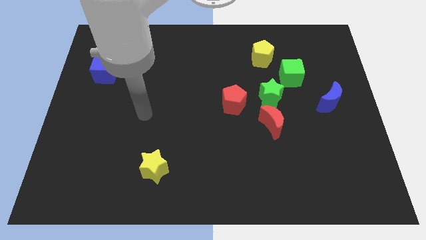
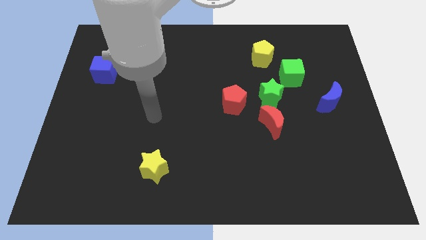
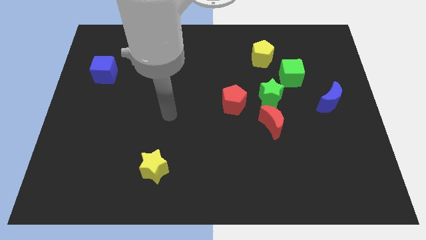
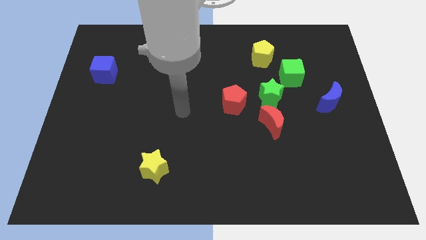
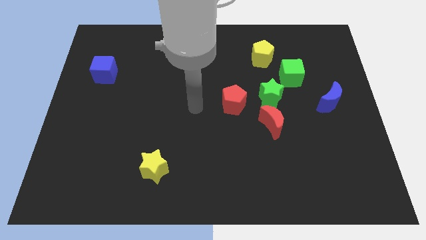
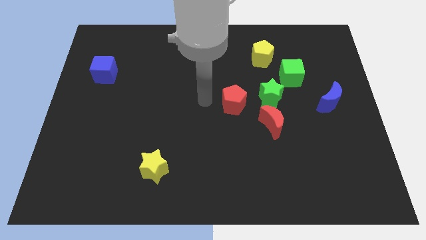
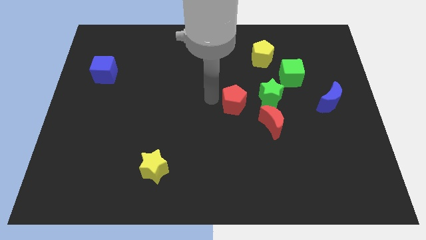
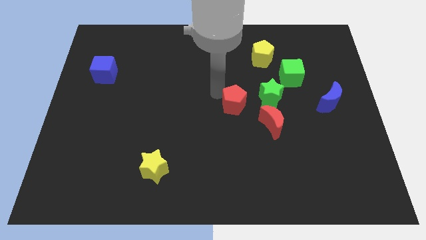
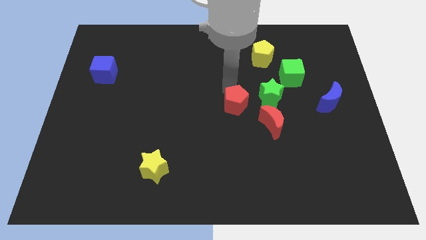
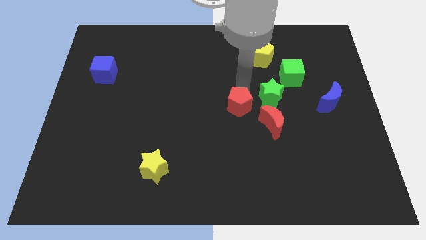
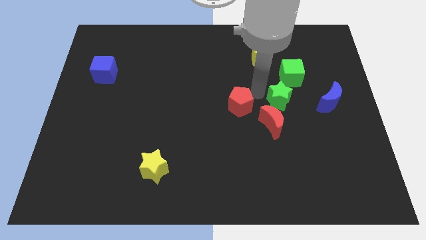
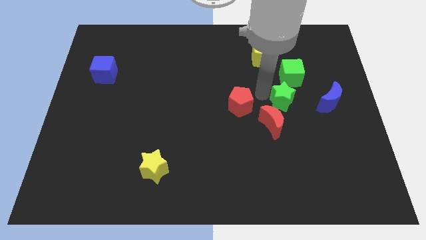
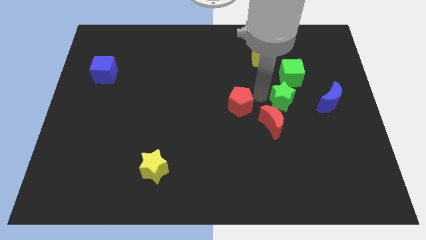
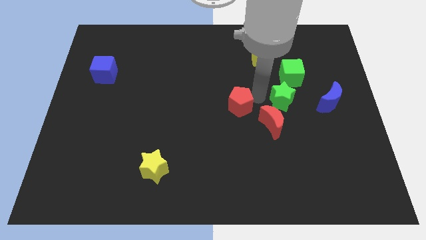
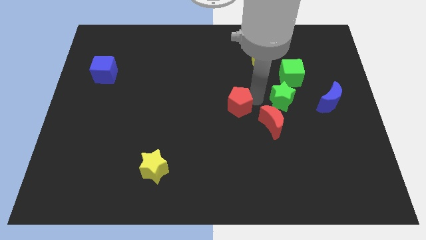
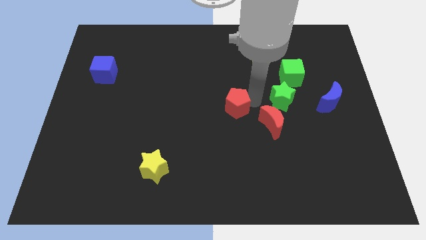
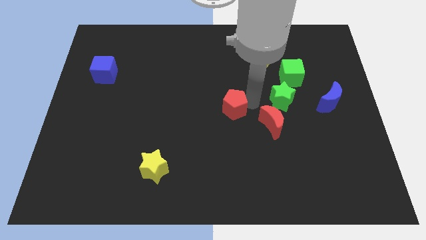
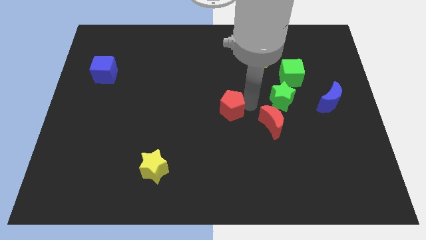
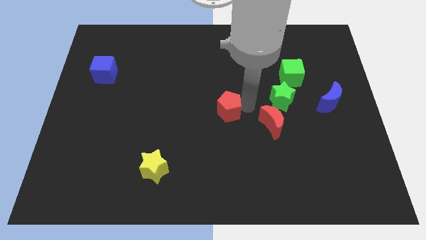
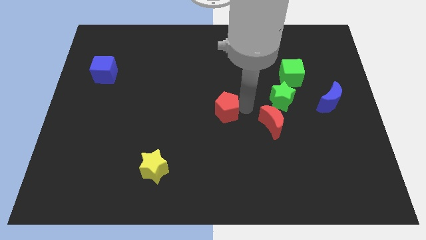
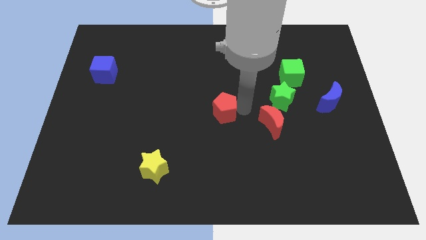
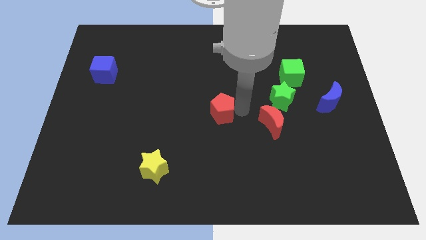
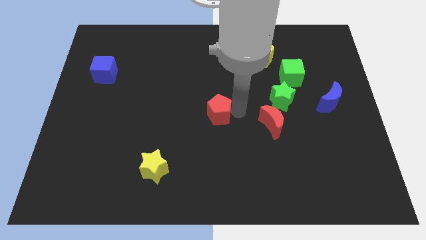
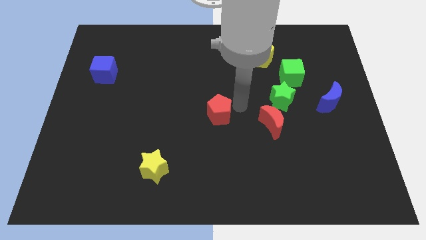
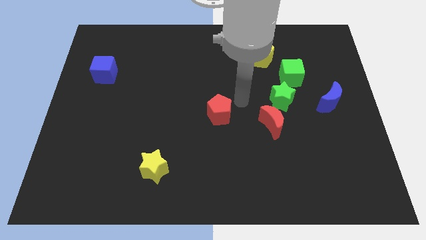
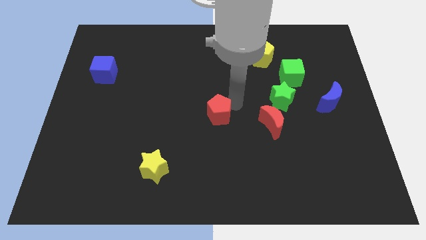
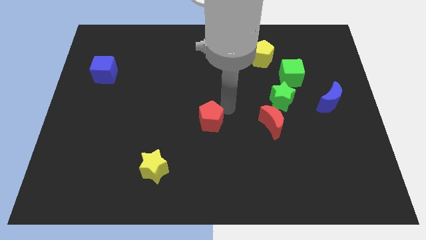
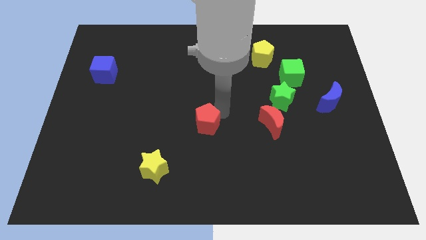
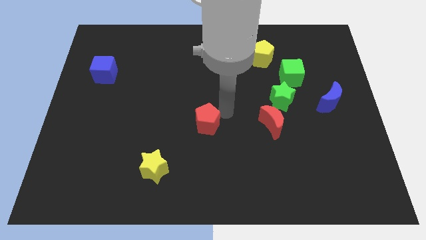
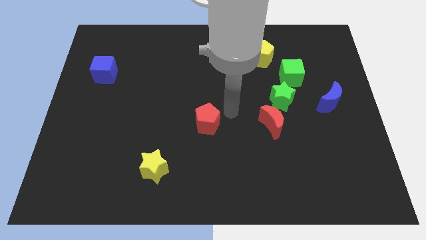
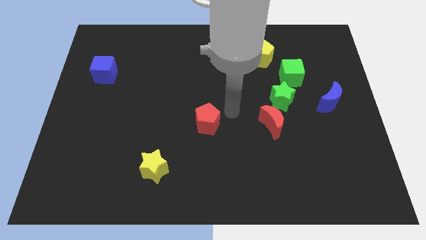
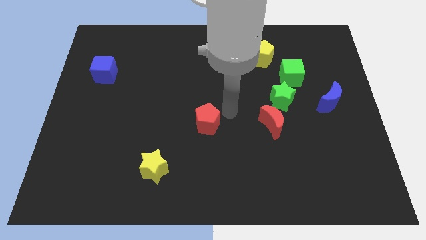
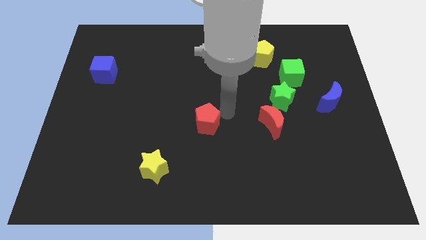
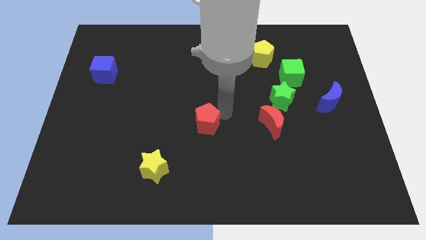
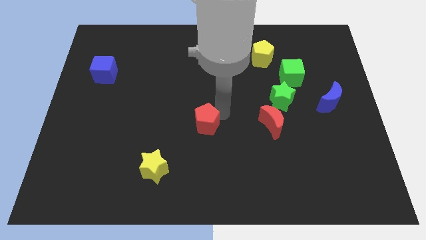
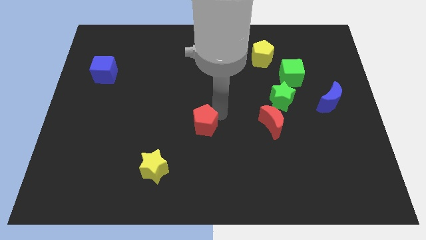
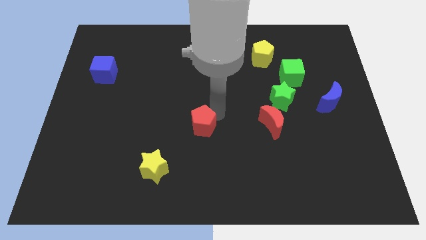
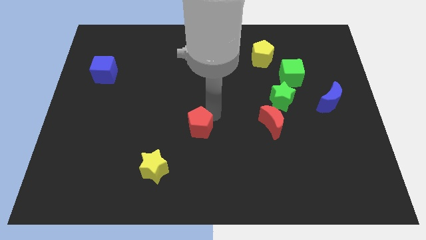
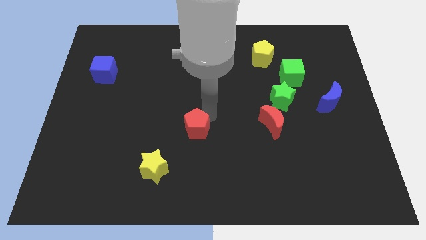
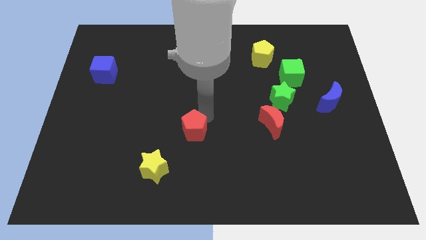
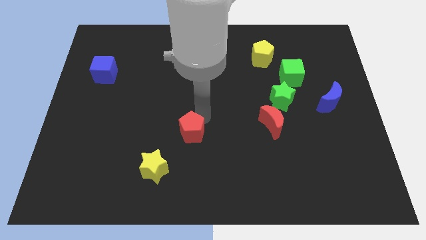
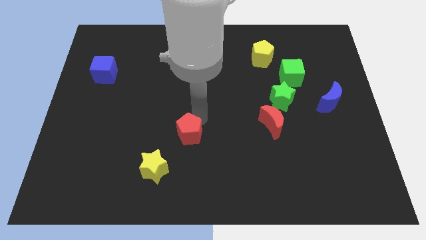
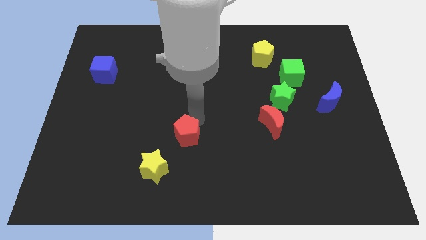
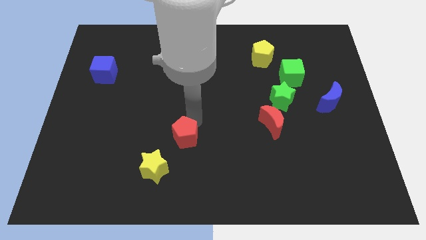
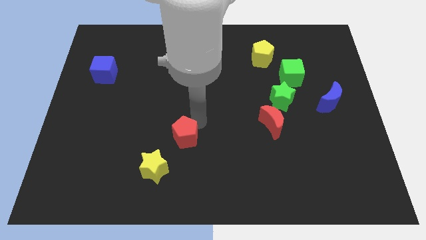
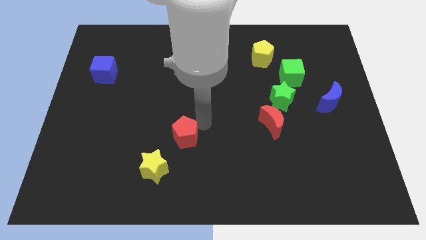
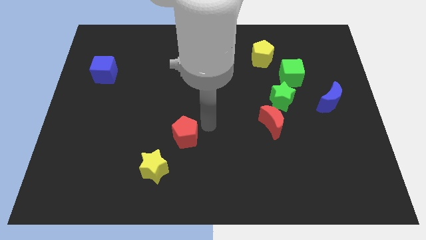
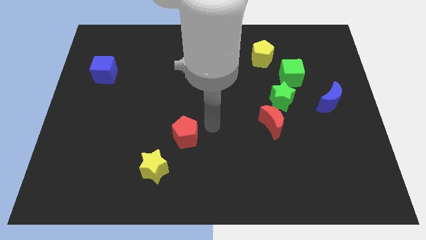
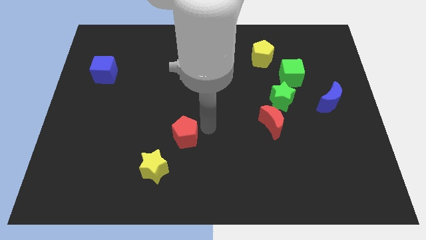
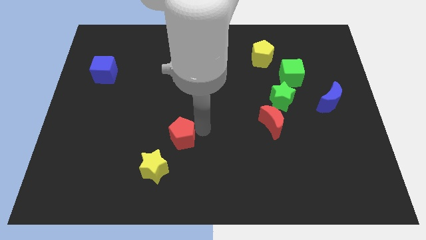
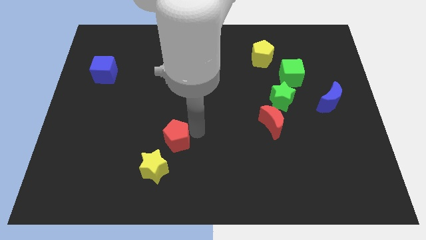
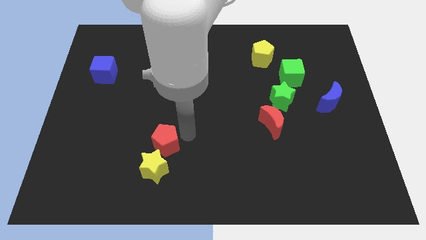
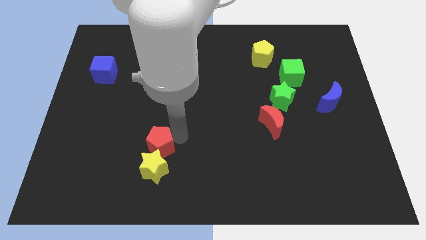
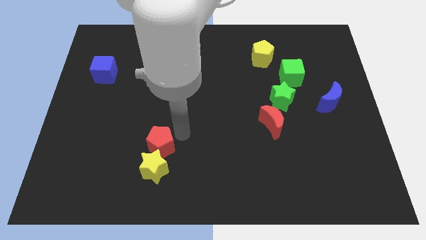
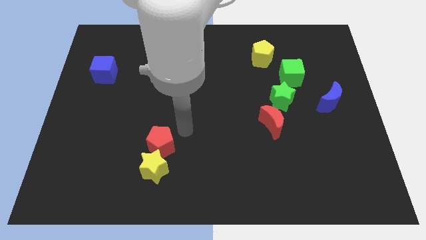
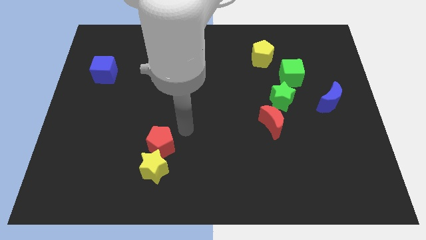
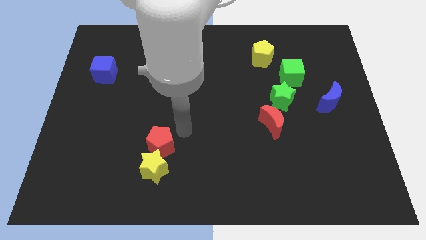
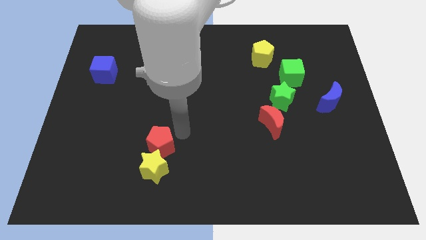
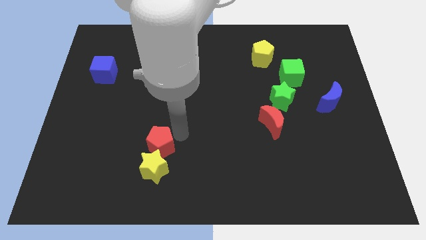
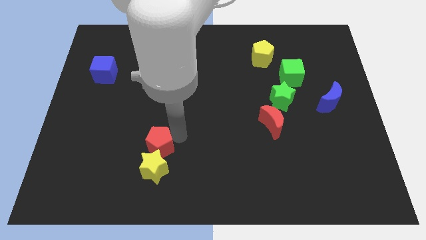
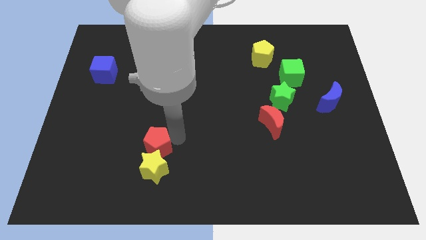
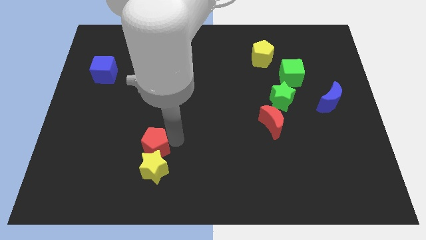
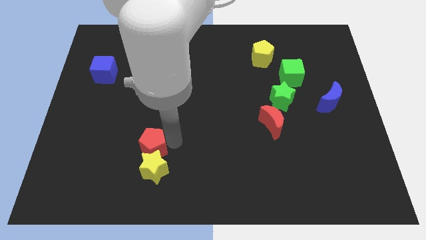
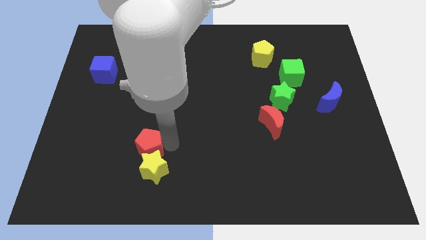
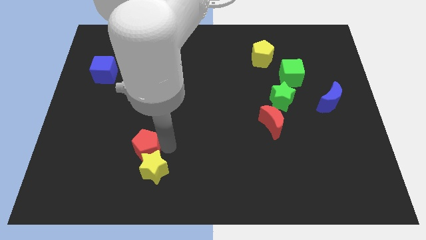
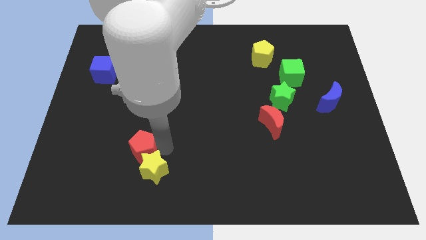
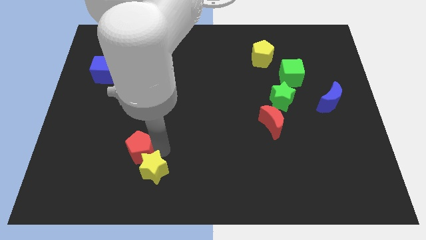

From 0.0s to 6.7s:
put the red pentagon left of the yellow star
